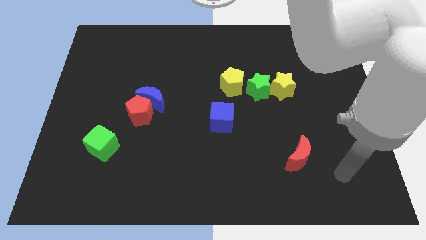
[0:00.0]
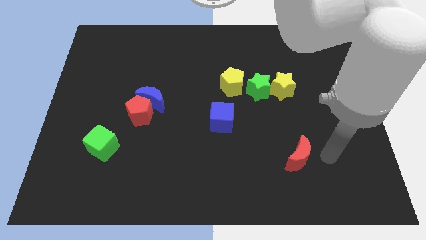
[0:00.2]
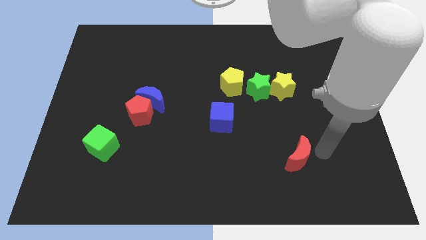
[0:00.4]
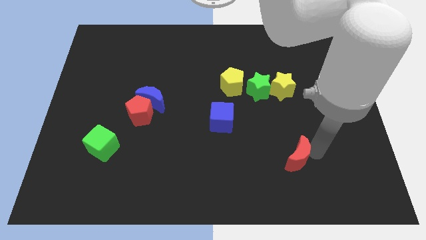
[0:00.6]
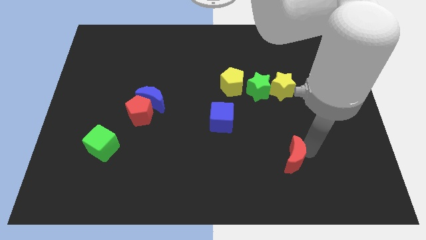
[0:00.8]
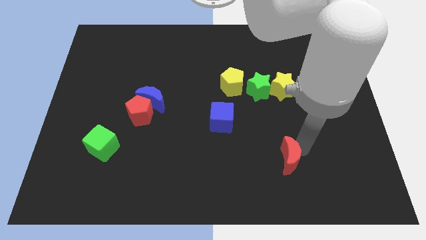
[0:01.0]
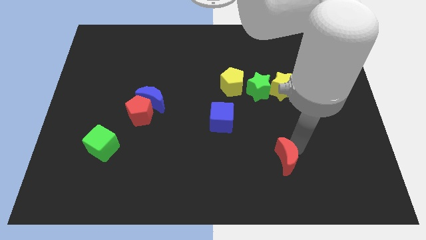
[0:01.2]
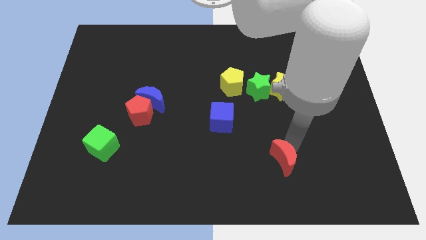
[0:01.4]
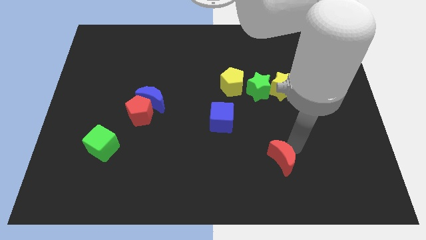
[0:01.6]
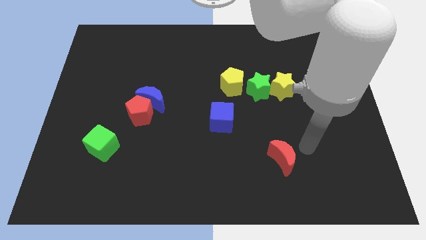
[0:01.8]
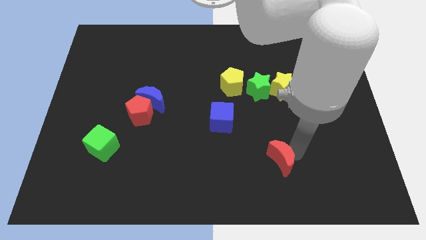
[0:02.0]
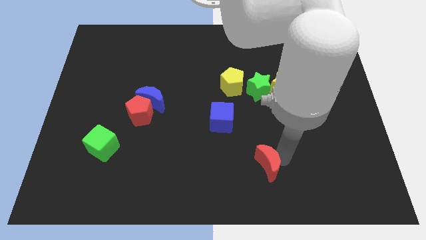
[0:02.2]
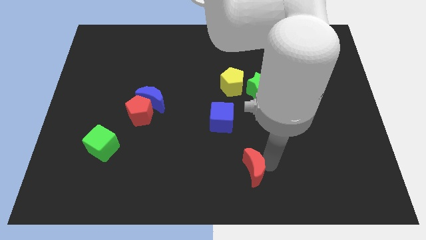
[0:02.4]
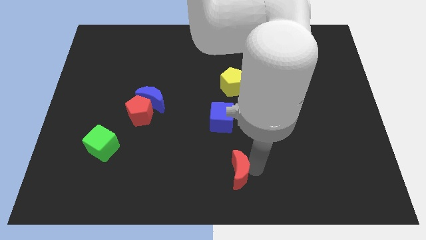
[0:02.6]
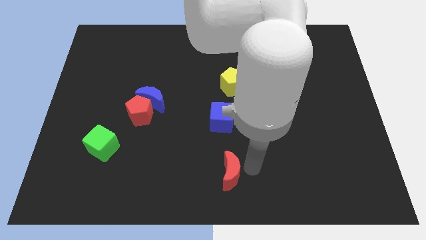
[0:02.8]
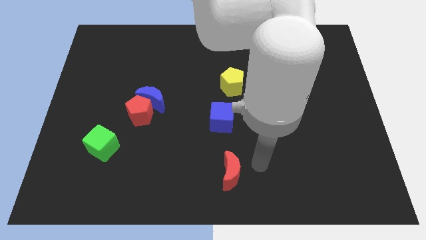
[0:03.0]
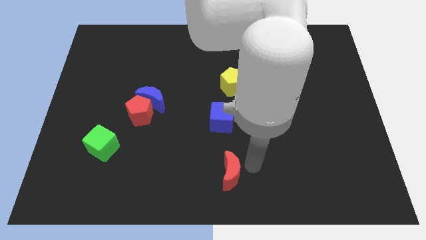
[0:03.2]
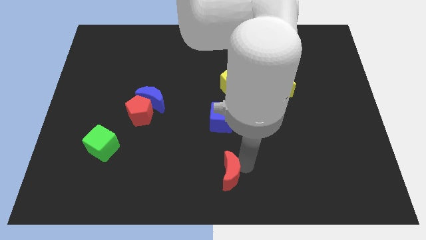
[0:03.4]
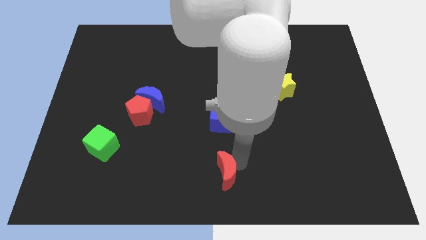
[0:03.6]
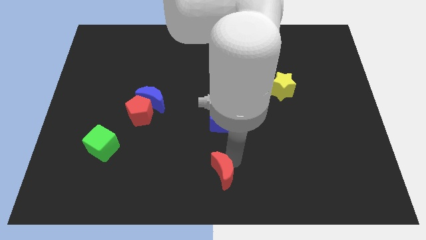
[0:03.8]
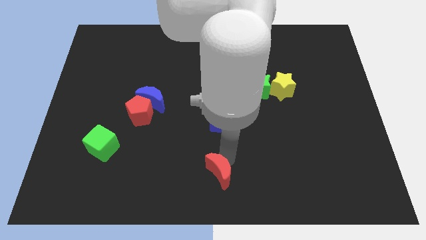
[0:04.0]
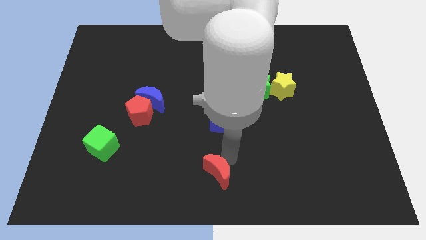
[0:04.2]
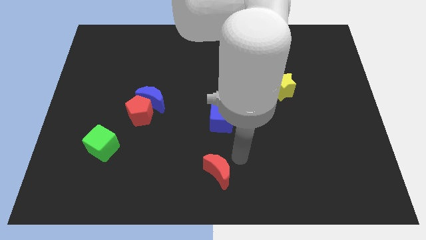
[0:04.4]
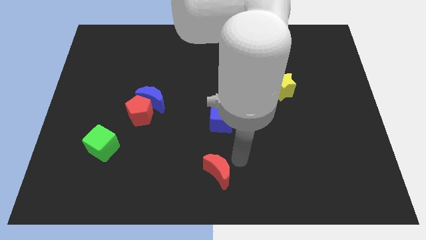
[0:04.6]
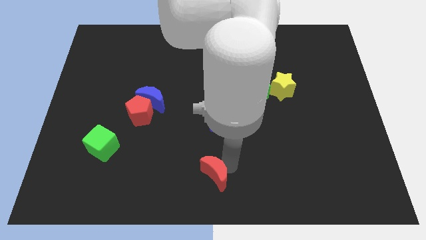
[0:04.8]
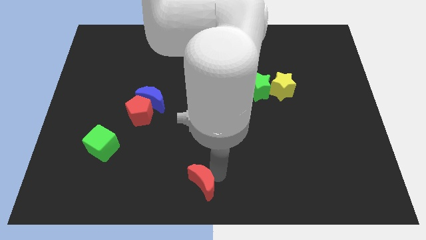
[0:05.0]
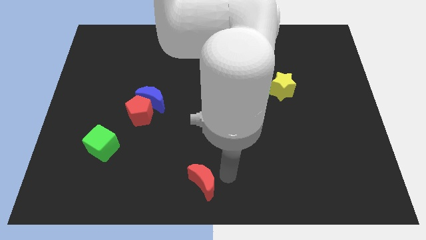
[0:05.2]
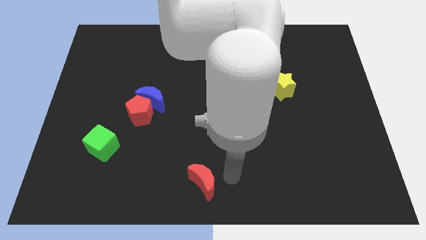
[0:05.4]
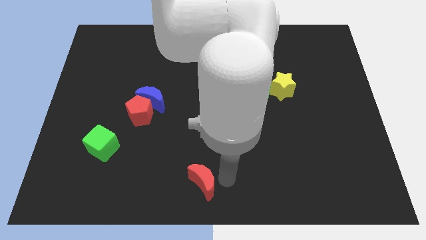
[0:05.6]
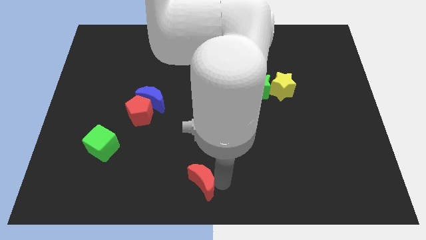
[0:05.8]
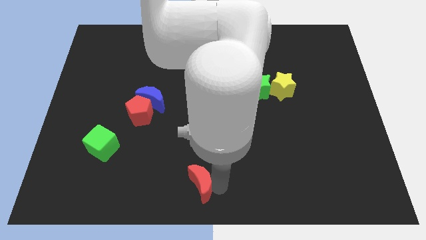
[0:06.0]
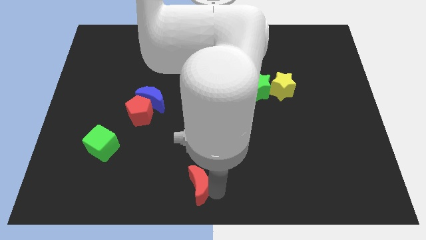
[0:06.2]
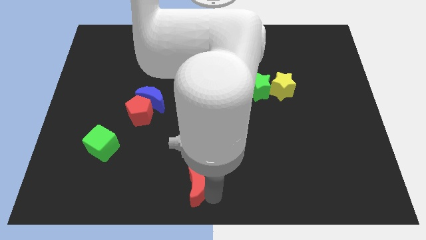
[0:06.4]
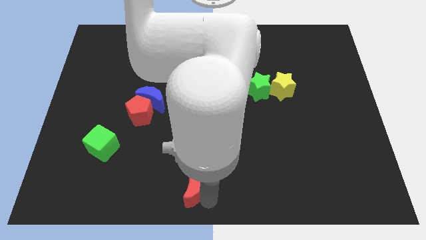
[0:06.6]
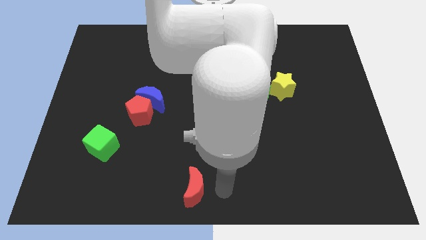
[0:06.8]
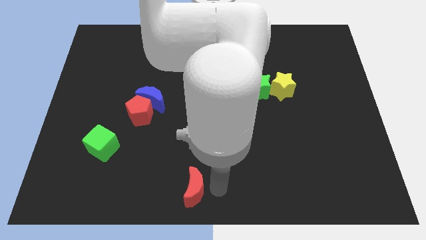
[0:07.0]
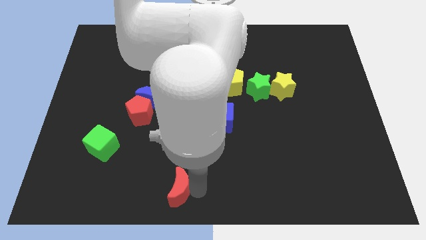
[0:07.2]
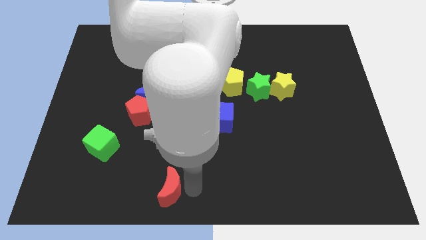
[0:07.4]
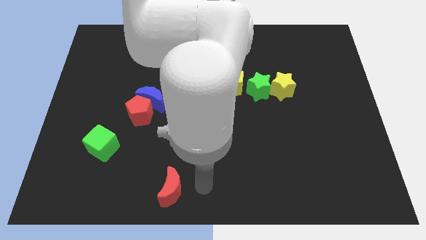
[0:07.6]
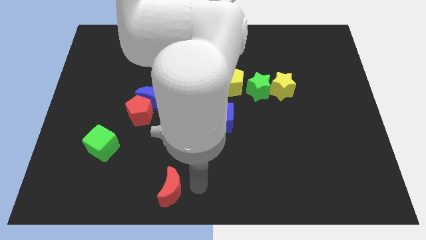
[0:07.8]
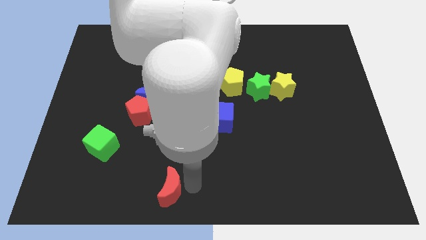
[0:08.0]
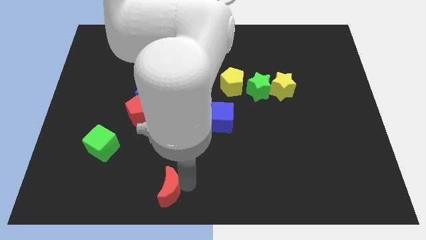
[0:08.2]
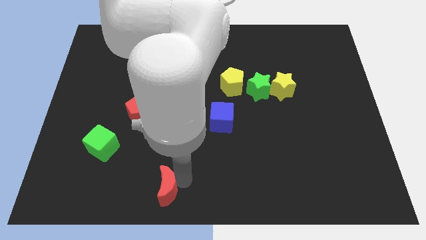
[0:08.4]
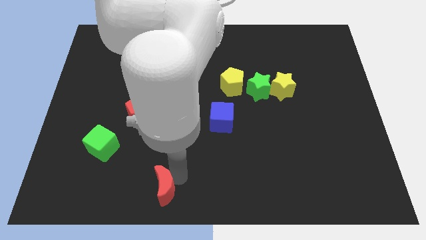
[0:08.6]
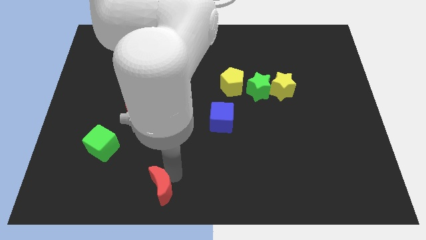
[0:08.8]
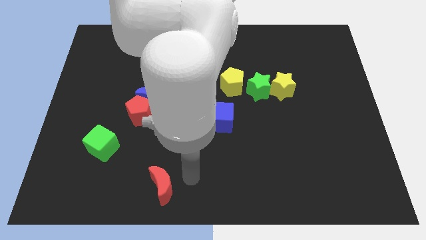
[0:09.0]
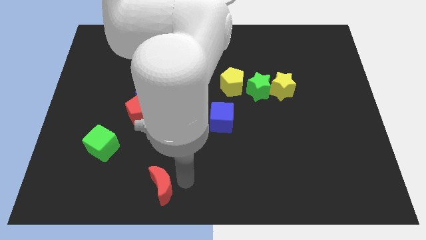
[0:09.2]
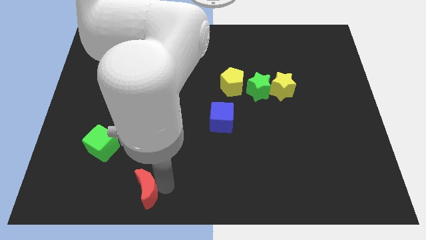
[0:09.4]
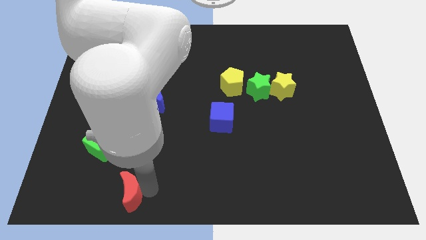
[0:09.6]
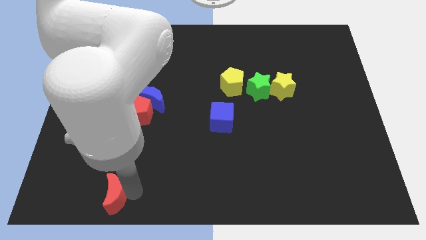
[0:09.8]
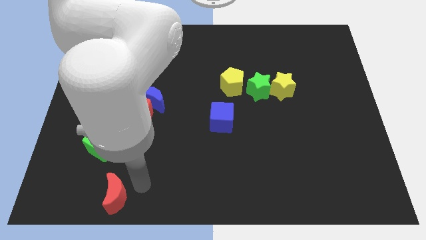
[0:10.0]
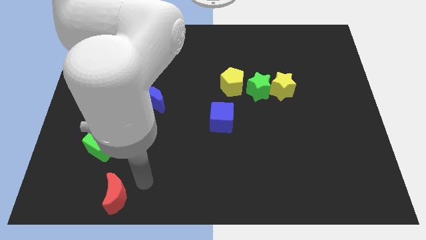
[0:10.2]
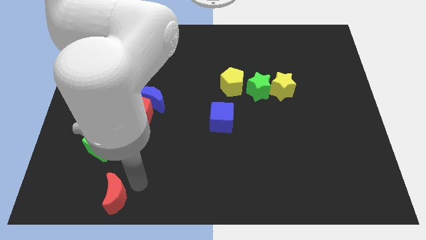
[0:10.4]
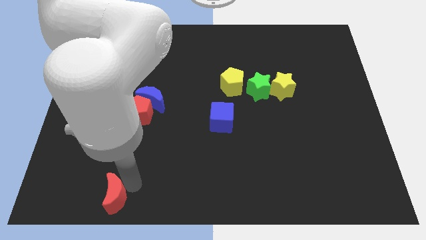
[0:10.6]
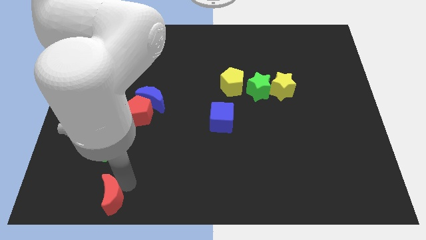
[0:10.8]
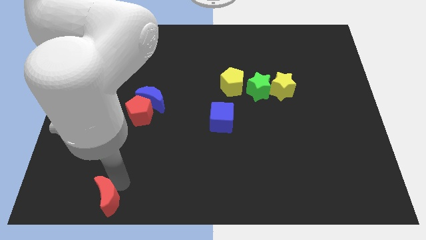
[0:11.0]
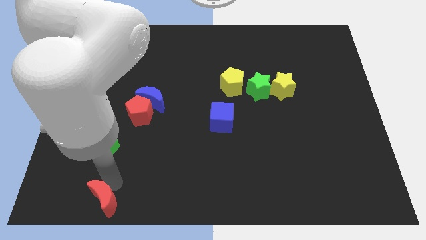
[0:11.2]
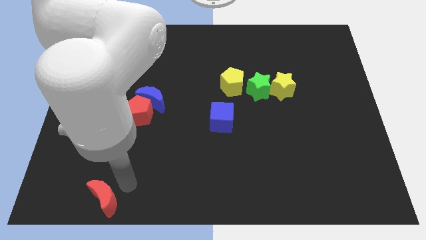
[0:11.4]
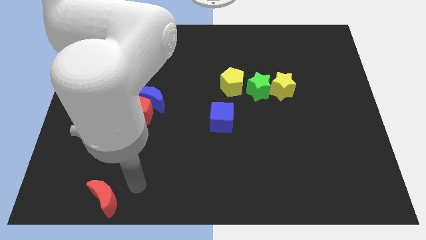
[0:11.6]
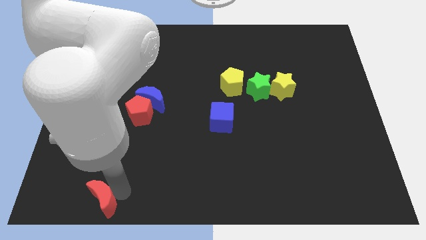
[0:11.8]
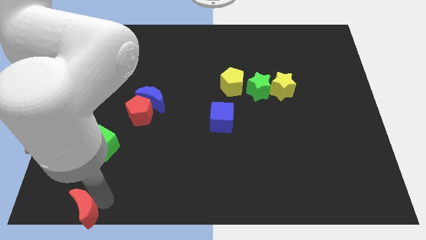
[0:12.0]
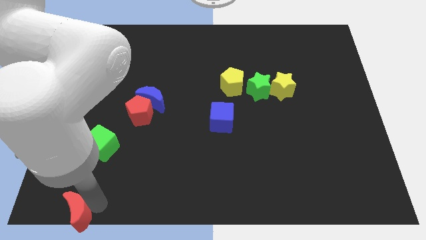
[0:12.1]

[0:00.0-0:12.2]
push the red moon to the bottom left

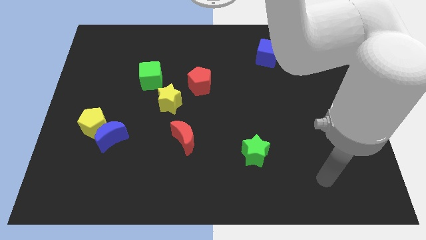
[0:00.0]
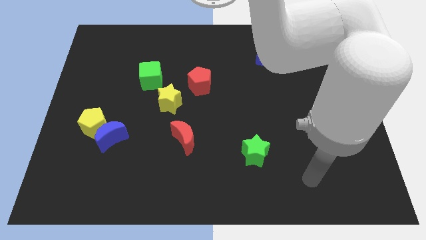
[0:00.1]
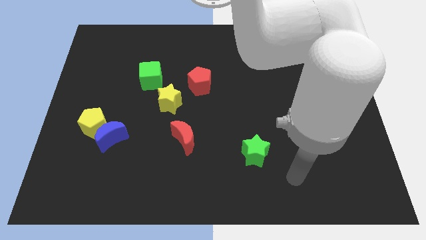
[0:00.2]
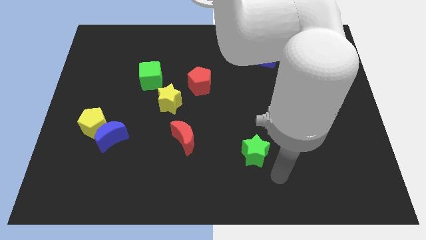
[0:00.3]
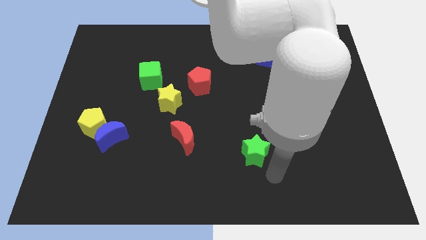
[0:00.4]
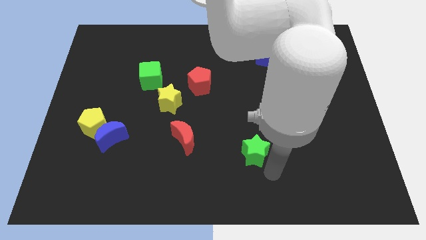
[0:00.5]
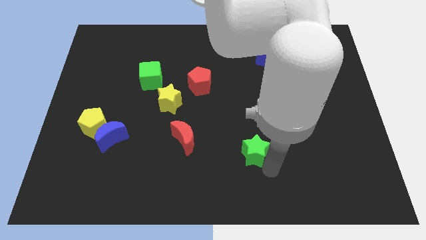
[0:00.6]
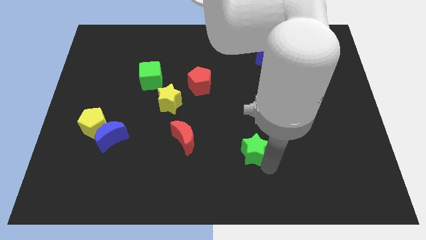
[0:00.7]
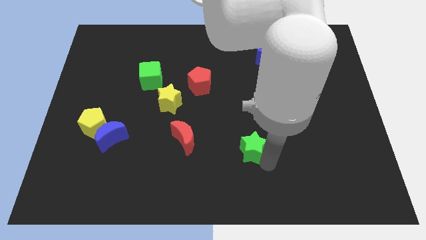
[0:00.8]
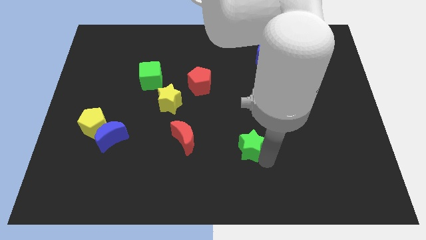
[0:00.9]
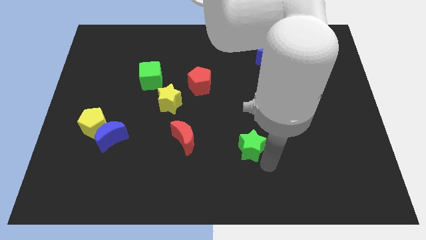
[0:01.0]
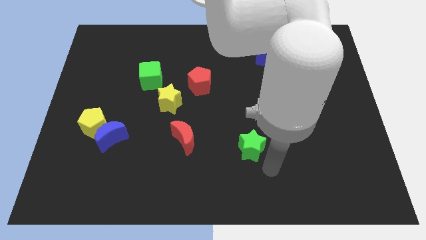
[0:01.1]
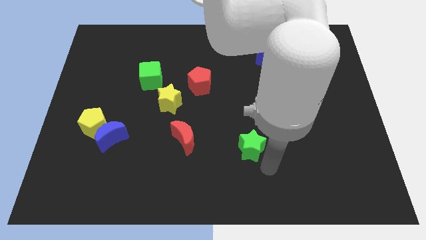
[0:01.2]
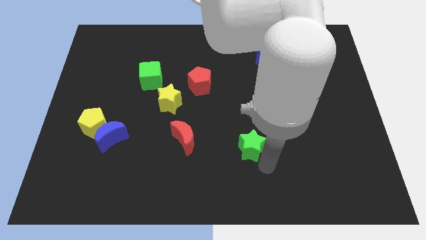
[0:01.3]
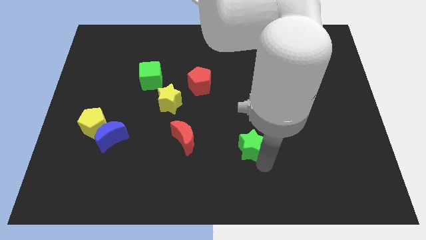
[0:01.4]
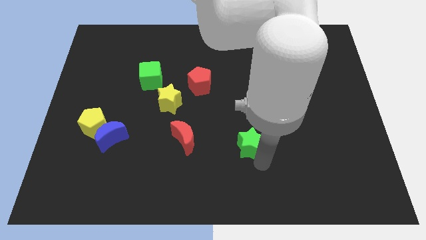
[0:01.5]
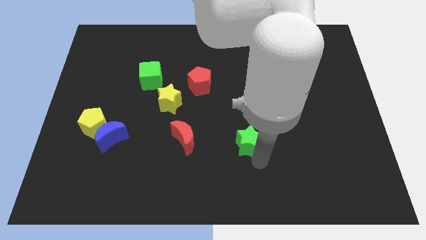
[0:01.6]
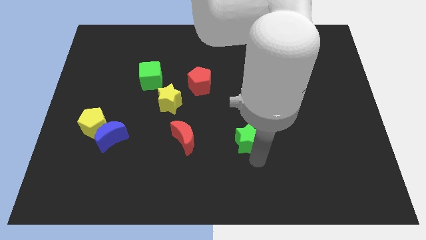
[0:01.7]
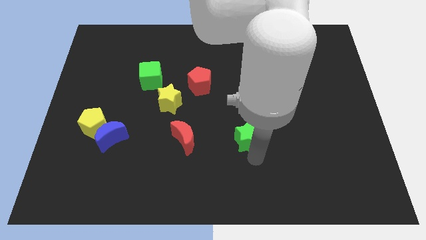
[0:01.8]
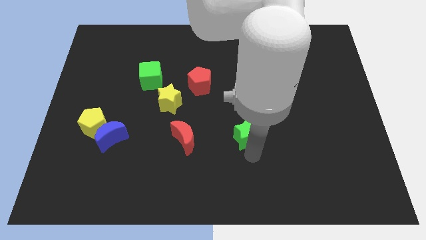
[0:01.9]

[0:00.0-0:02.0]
move the green star to the middle
